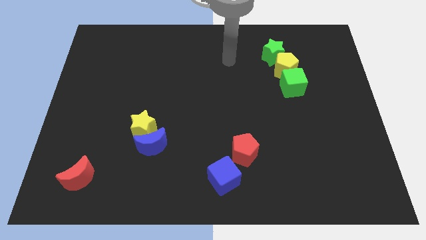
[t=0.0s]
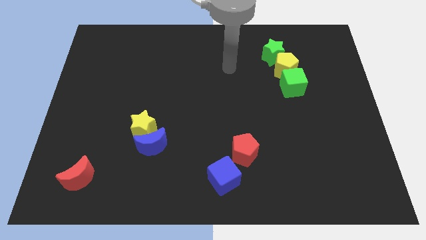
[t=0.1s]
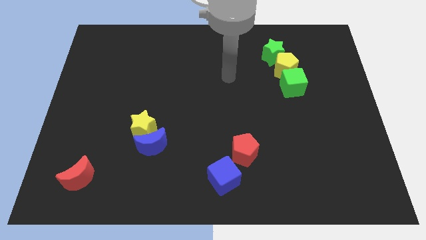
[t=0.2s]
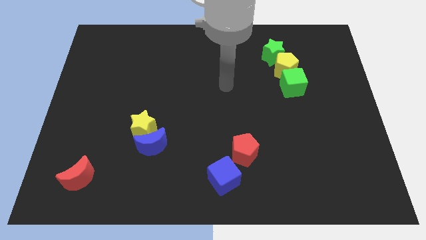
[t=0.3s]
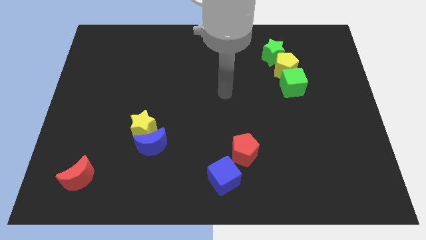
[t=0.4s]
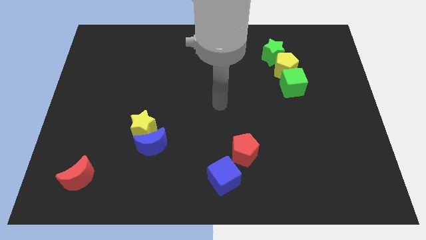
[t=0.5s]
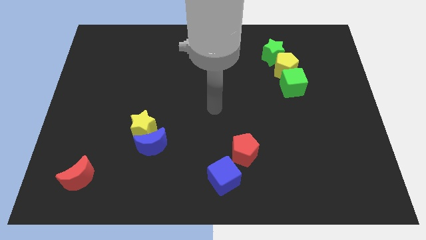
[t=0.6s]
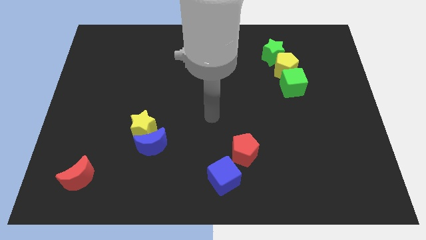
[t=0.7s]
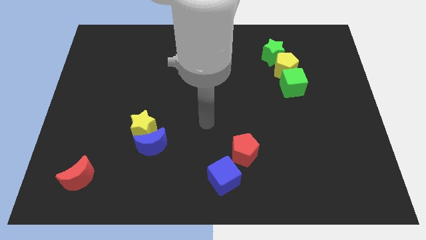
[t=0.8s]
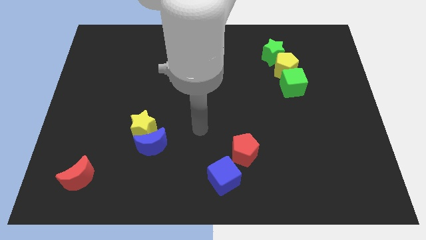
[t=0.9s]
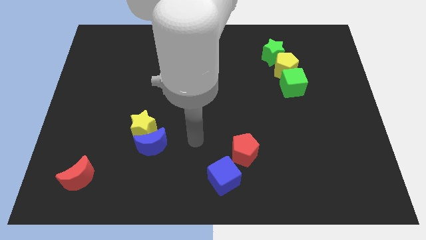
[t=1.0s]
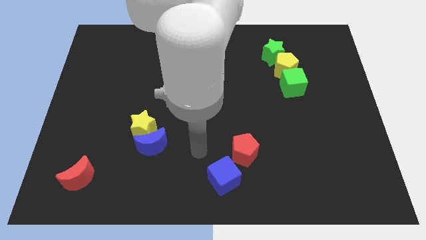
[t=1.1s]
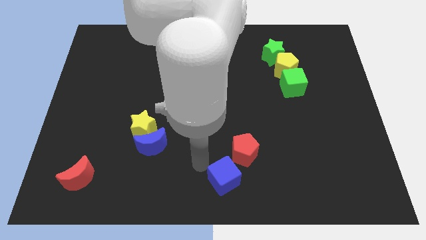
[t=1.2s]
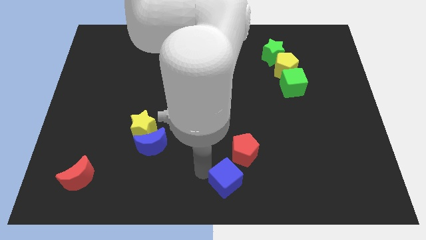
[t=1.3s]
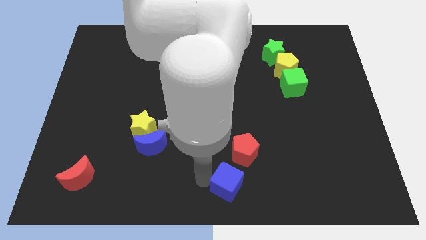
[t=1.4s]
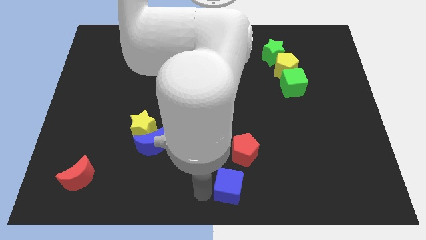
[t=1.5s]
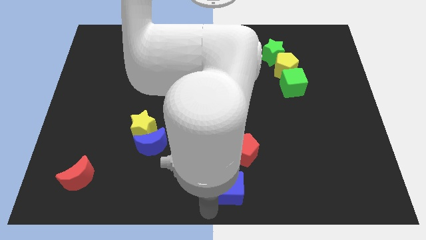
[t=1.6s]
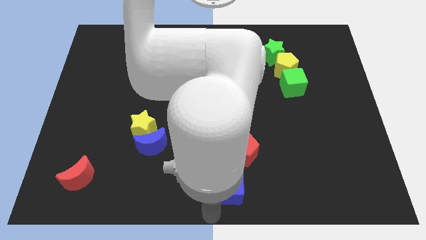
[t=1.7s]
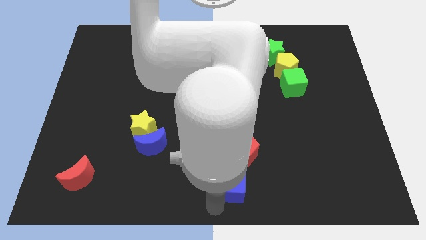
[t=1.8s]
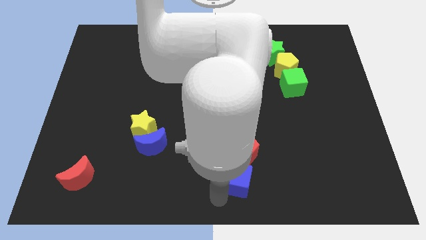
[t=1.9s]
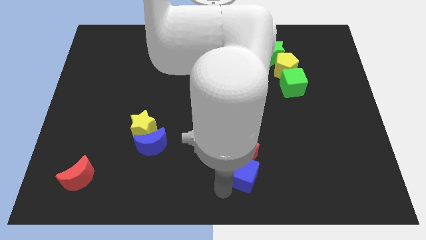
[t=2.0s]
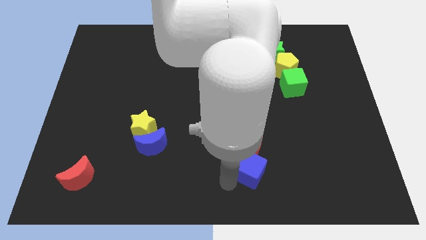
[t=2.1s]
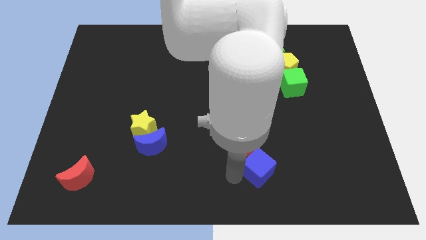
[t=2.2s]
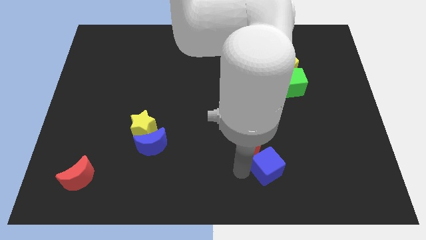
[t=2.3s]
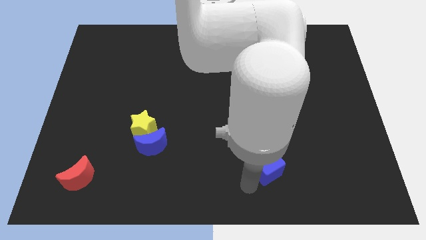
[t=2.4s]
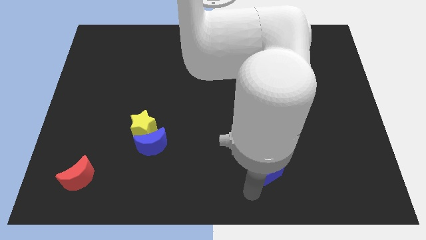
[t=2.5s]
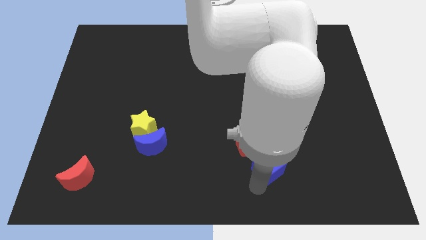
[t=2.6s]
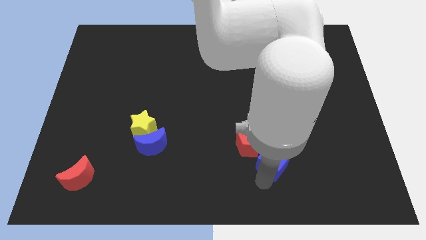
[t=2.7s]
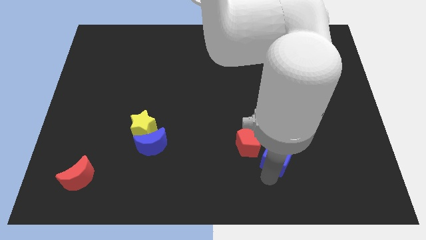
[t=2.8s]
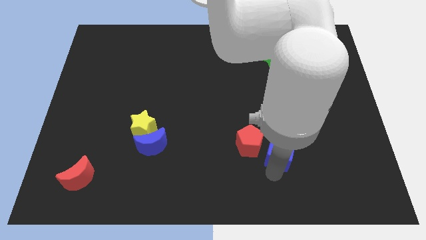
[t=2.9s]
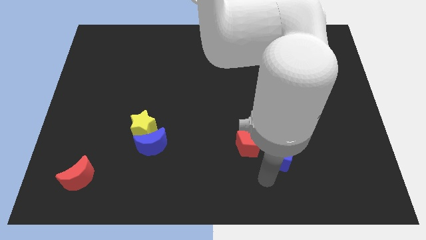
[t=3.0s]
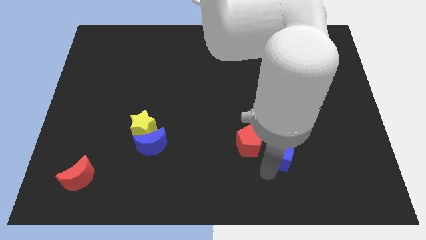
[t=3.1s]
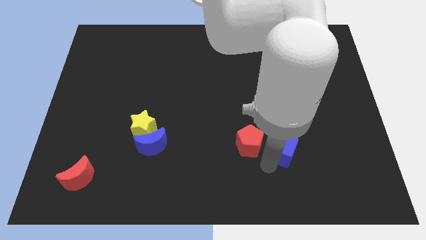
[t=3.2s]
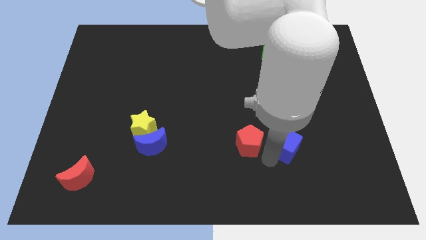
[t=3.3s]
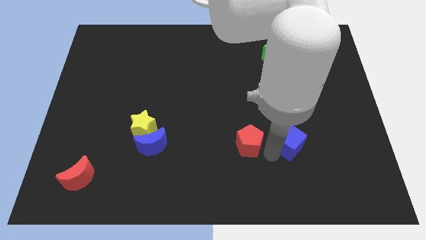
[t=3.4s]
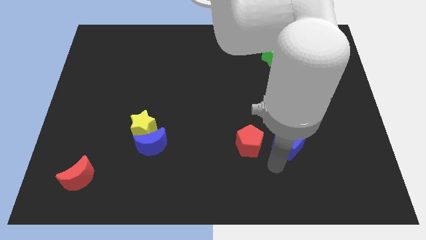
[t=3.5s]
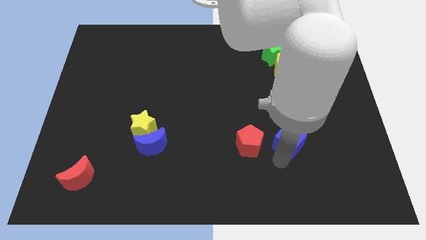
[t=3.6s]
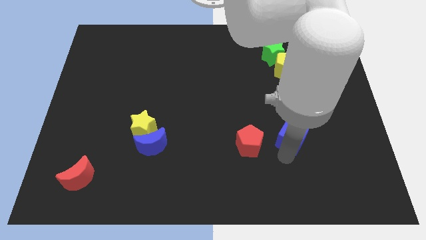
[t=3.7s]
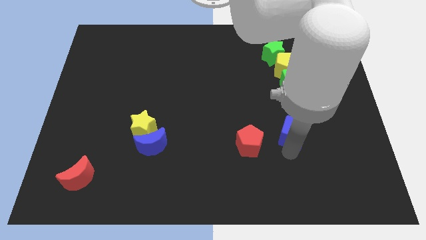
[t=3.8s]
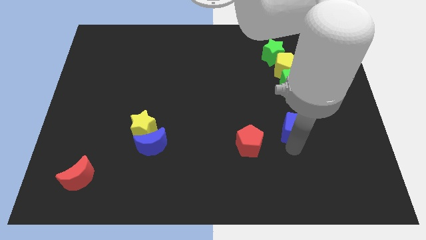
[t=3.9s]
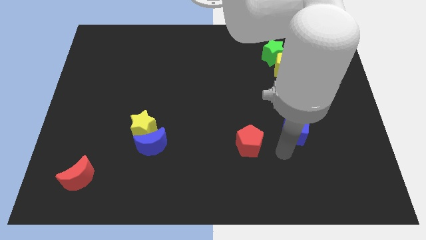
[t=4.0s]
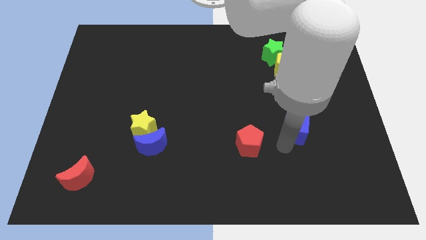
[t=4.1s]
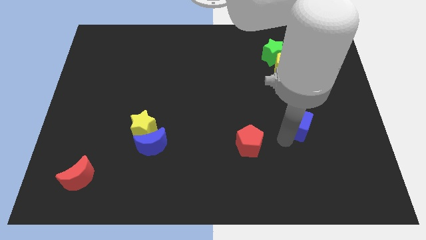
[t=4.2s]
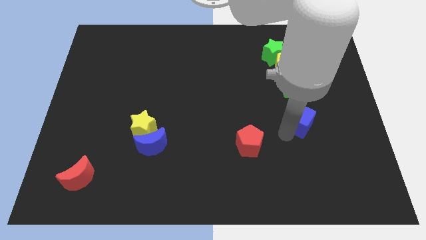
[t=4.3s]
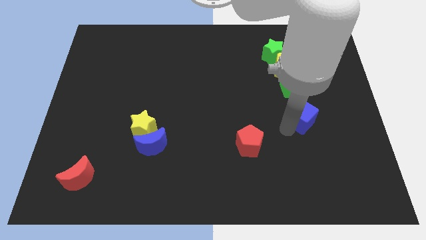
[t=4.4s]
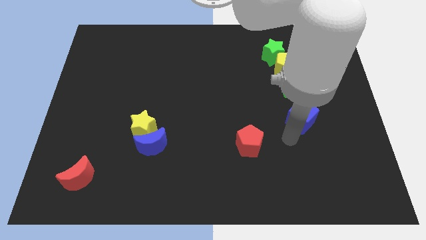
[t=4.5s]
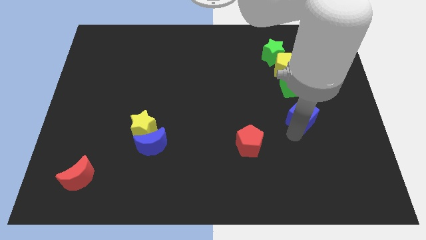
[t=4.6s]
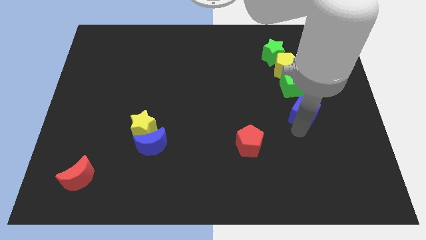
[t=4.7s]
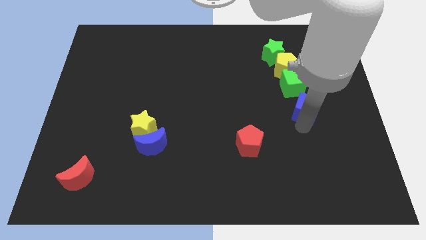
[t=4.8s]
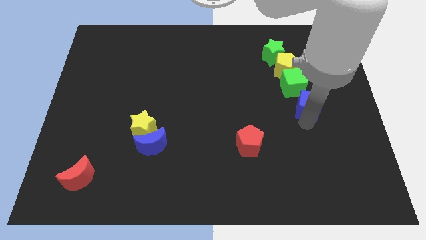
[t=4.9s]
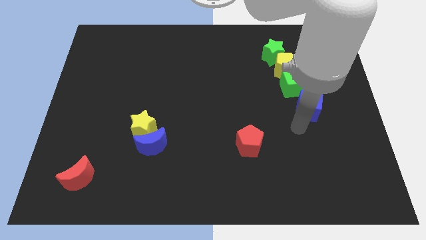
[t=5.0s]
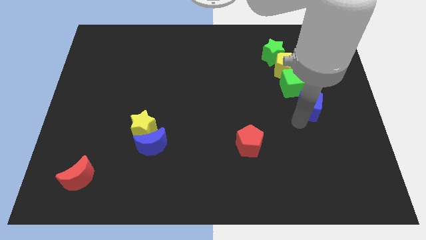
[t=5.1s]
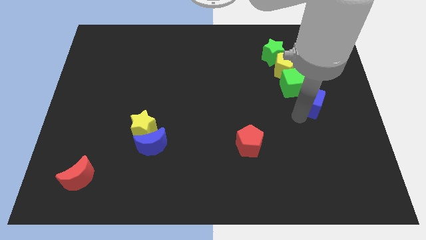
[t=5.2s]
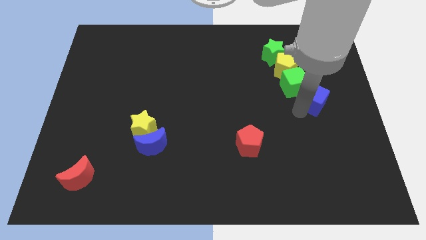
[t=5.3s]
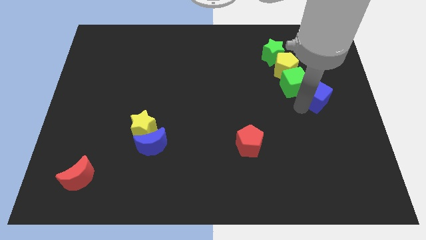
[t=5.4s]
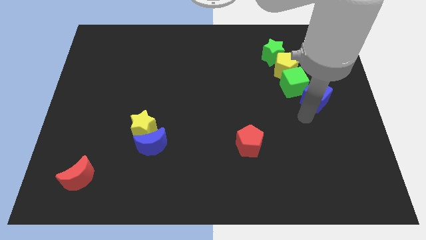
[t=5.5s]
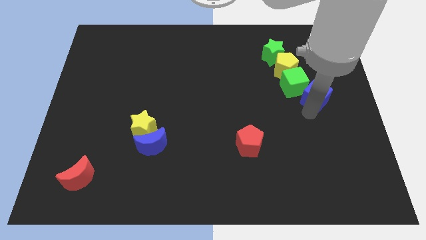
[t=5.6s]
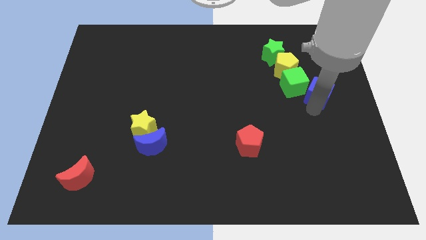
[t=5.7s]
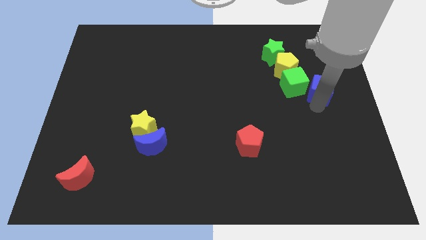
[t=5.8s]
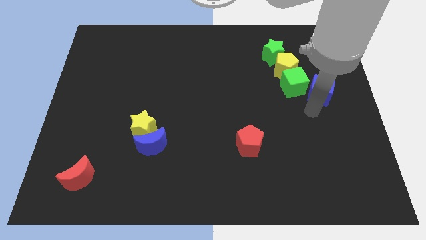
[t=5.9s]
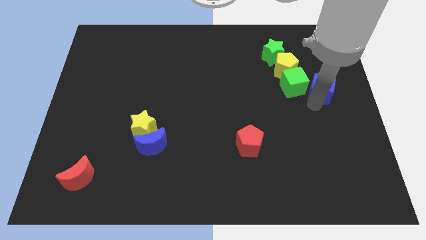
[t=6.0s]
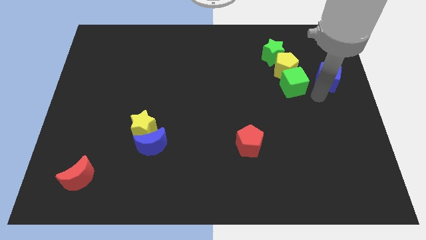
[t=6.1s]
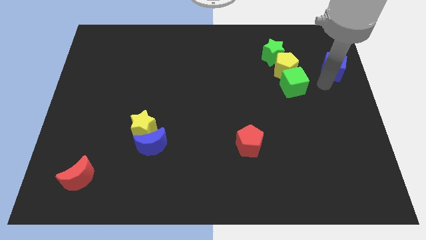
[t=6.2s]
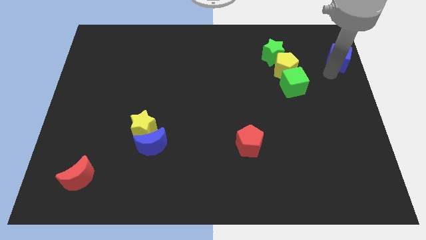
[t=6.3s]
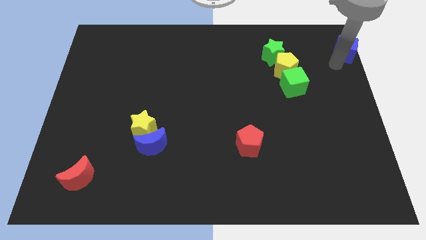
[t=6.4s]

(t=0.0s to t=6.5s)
push the blue cube to the top right of the board
